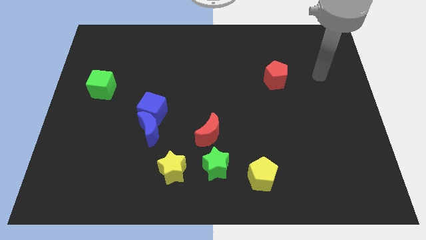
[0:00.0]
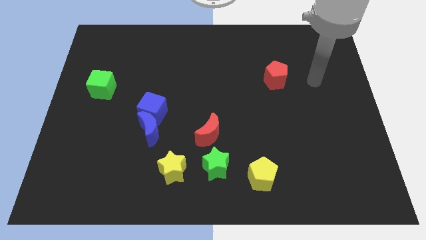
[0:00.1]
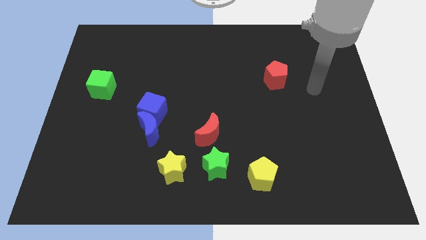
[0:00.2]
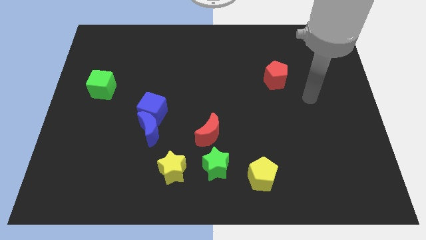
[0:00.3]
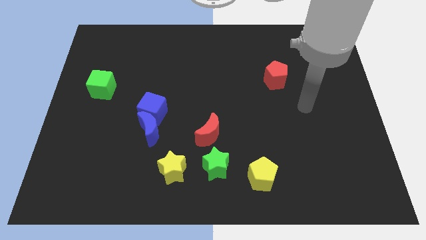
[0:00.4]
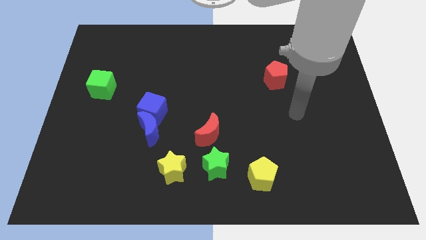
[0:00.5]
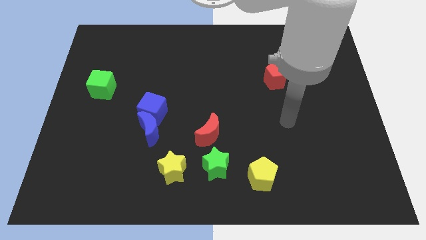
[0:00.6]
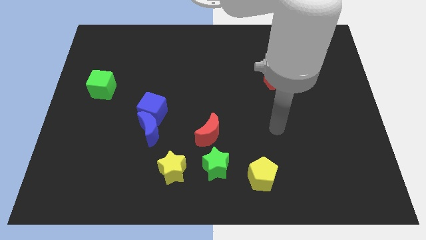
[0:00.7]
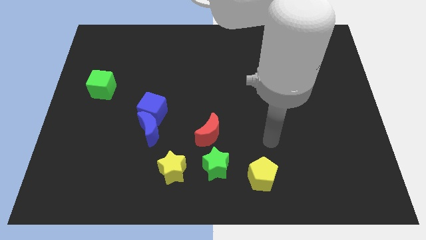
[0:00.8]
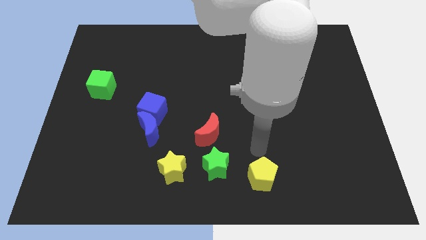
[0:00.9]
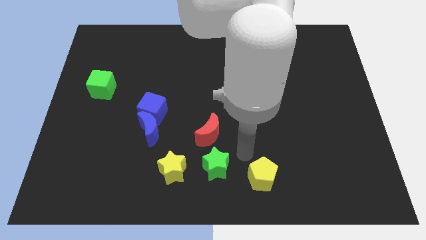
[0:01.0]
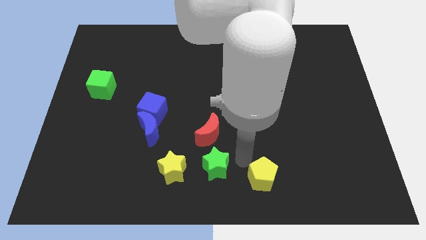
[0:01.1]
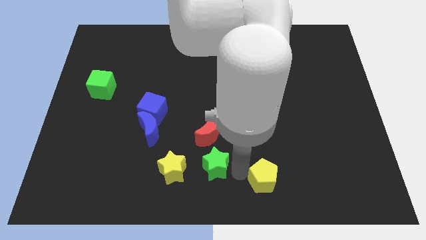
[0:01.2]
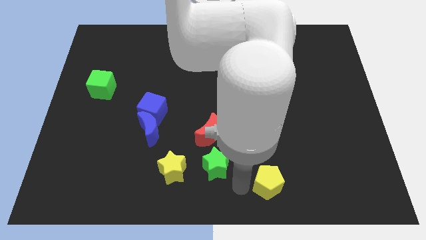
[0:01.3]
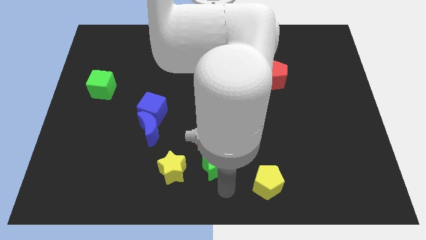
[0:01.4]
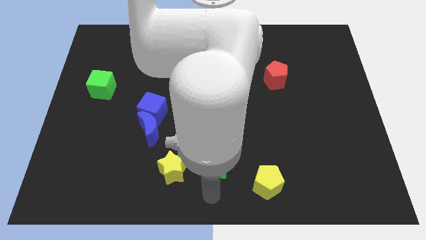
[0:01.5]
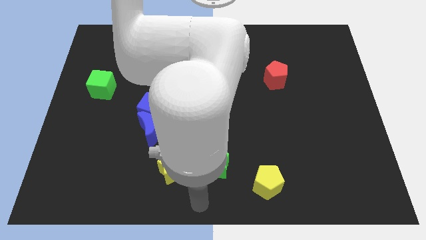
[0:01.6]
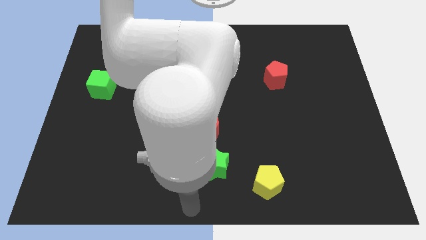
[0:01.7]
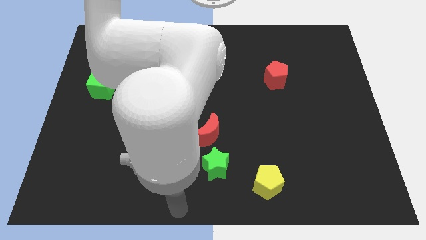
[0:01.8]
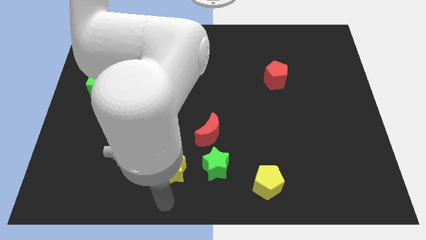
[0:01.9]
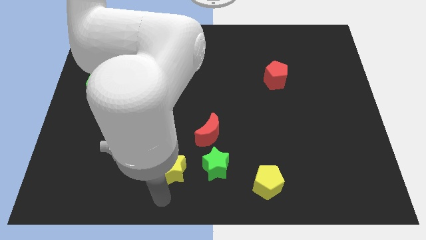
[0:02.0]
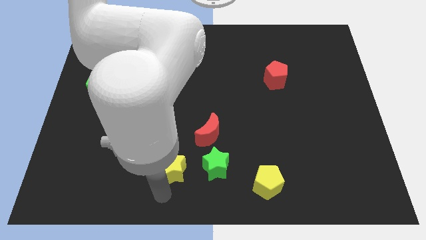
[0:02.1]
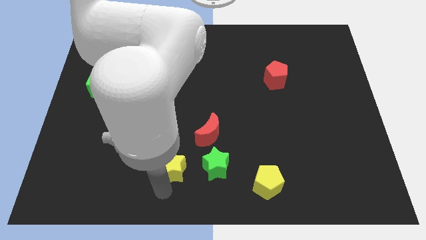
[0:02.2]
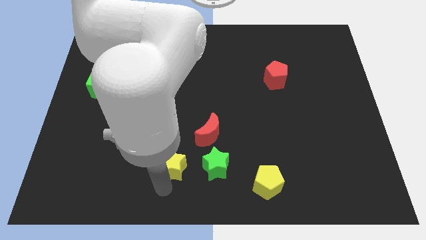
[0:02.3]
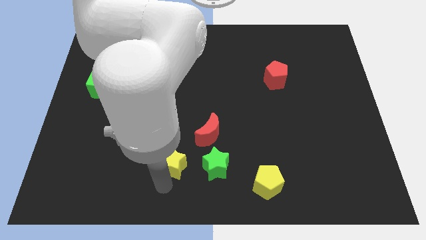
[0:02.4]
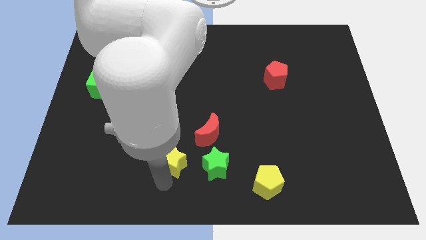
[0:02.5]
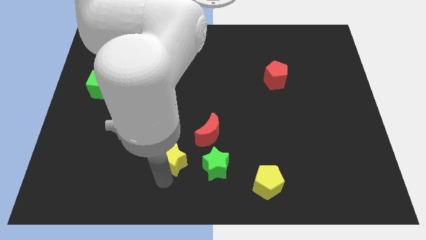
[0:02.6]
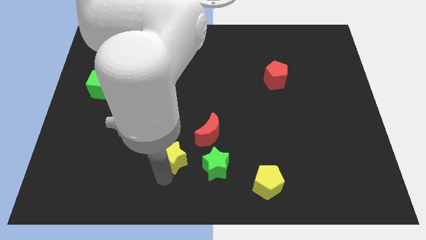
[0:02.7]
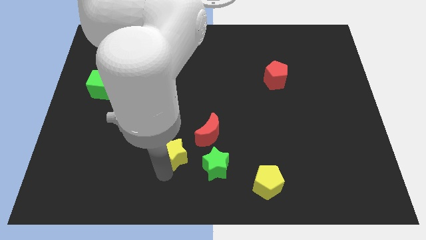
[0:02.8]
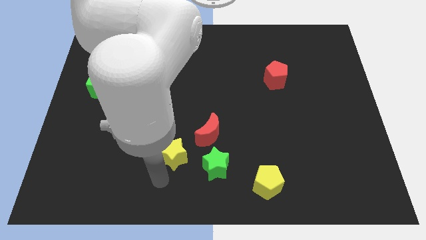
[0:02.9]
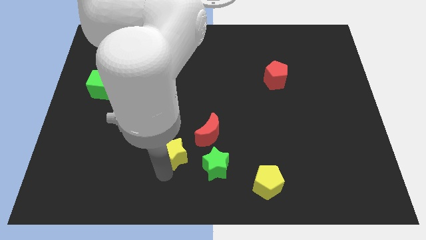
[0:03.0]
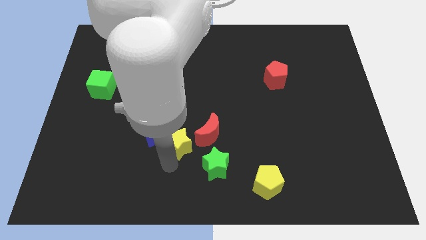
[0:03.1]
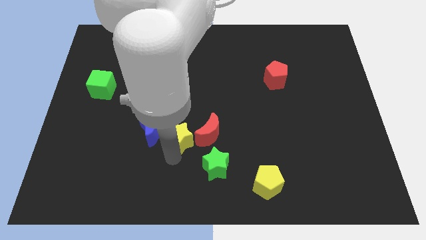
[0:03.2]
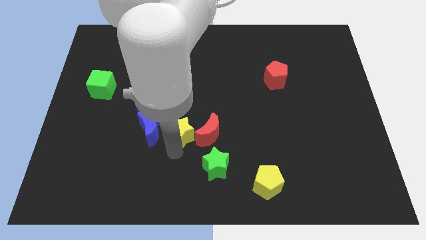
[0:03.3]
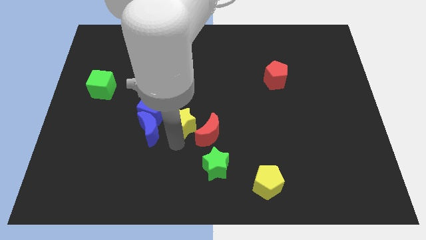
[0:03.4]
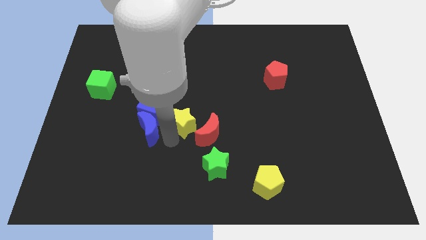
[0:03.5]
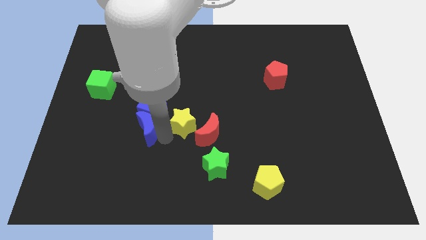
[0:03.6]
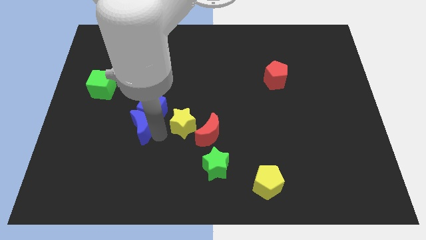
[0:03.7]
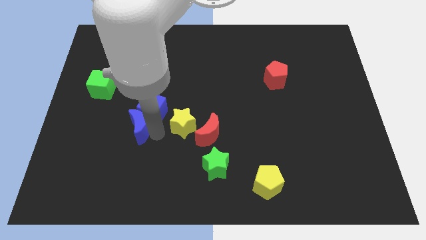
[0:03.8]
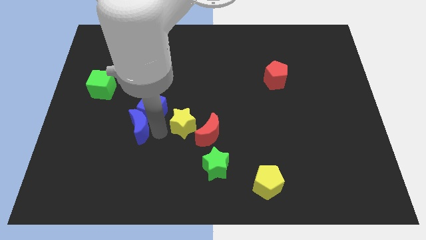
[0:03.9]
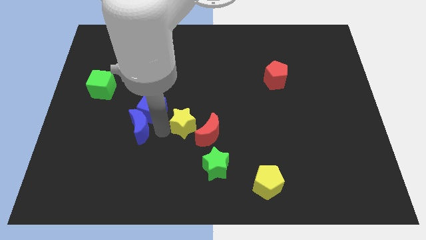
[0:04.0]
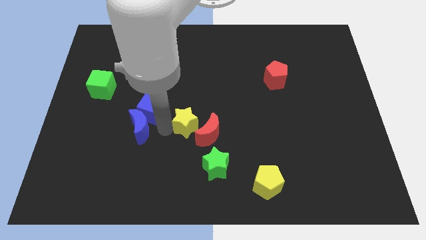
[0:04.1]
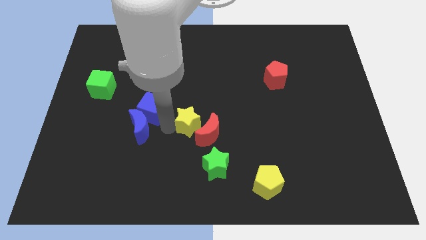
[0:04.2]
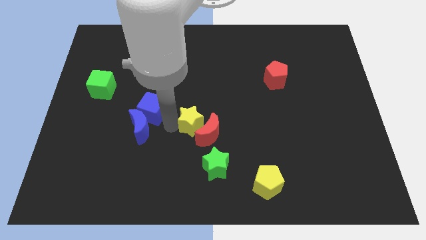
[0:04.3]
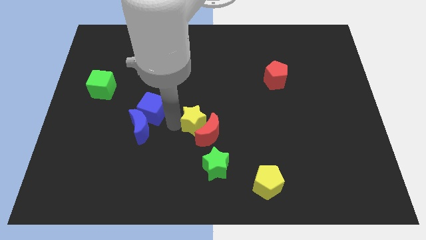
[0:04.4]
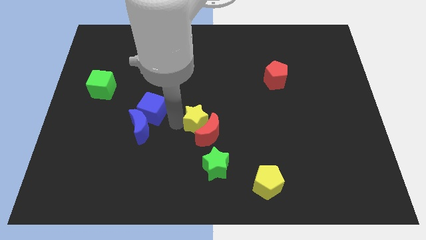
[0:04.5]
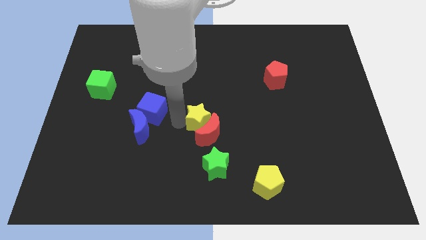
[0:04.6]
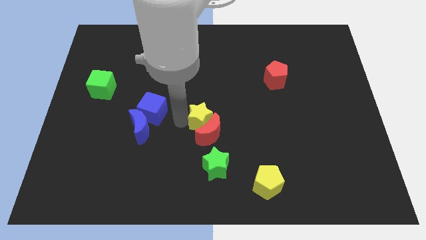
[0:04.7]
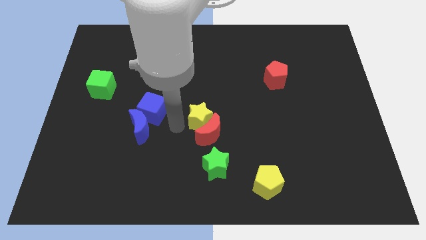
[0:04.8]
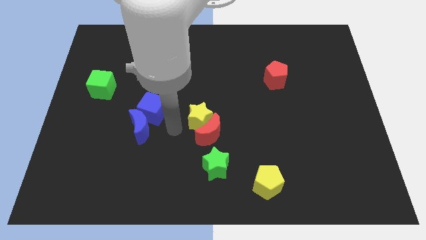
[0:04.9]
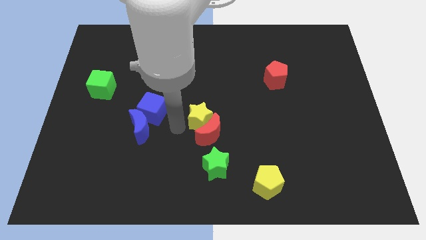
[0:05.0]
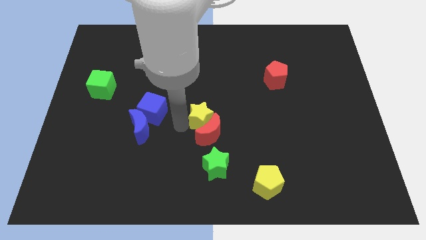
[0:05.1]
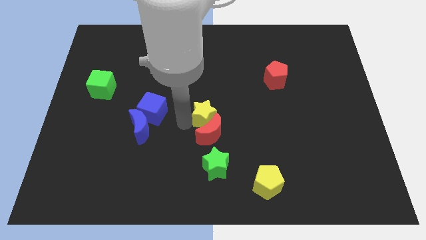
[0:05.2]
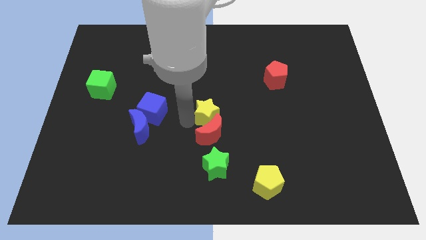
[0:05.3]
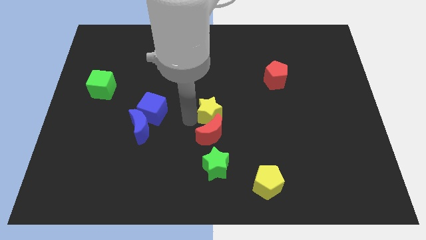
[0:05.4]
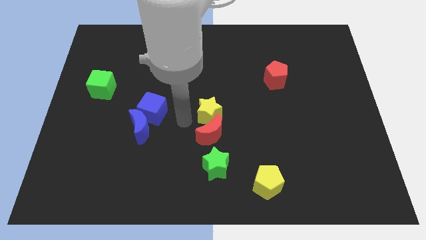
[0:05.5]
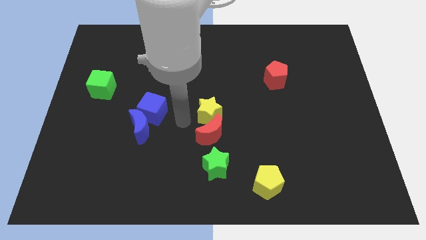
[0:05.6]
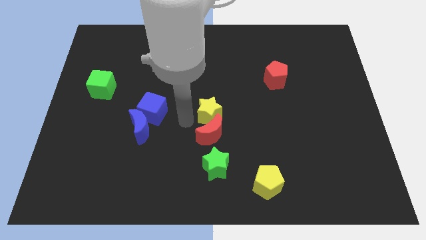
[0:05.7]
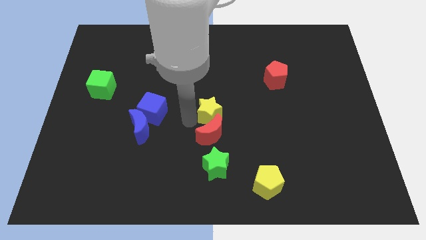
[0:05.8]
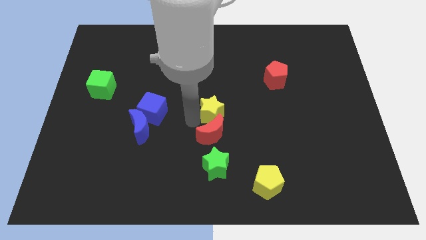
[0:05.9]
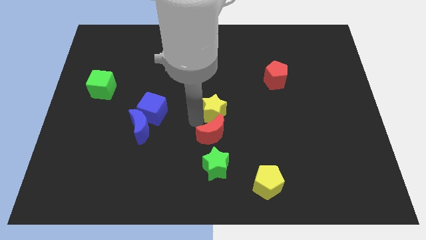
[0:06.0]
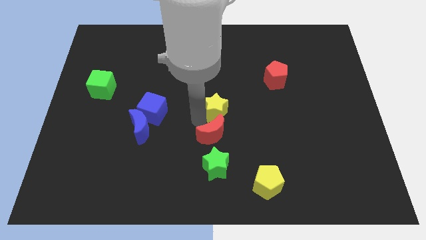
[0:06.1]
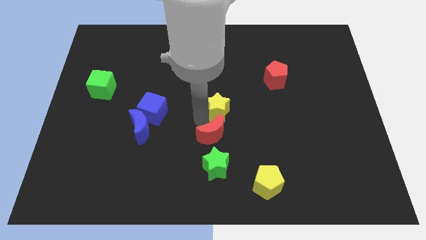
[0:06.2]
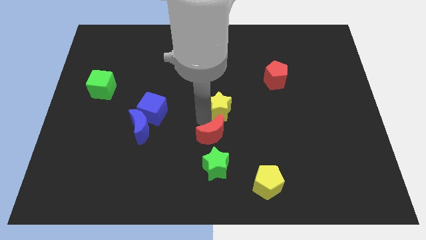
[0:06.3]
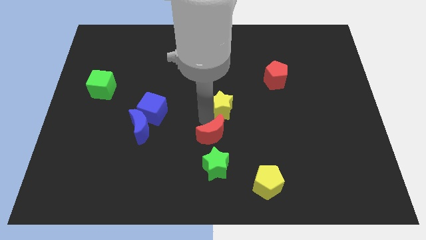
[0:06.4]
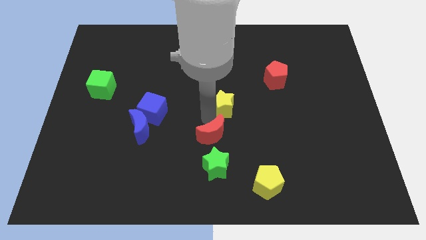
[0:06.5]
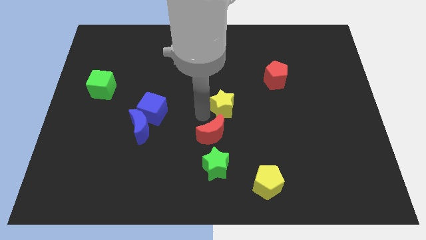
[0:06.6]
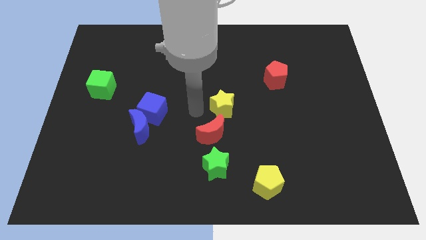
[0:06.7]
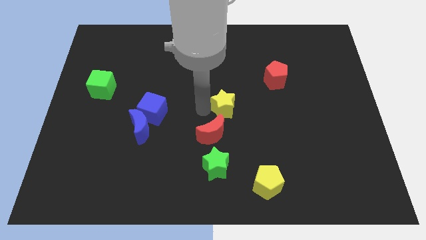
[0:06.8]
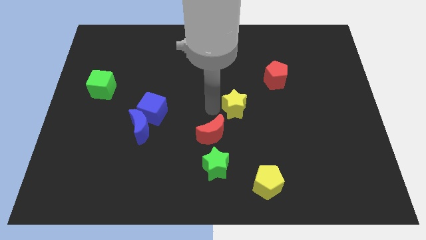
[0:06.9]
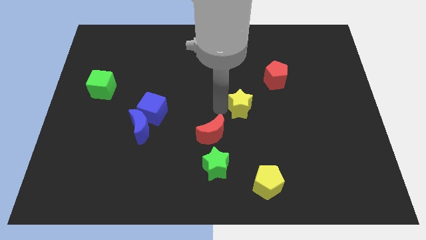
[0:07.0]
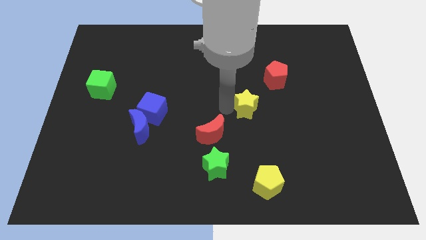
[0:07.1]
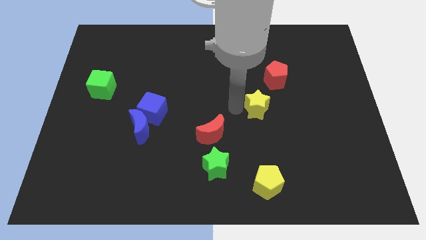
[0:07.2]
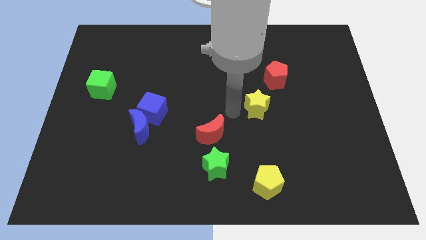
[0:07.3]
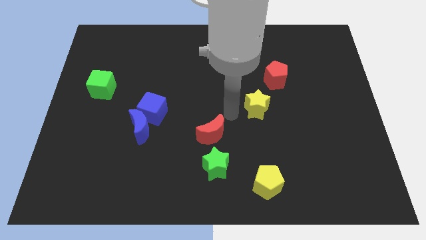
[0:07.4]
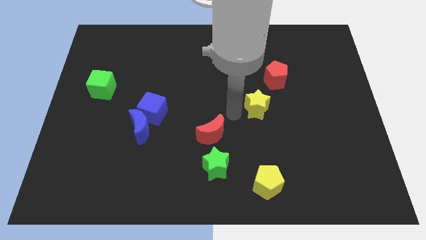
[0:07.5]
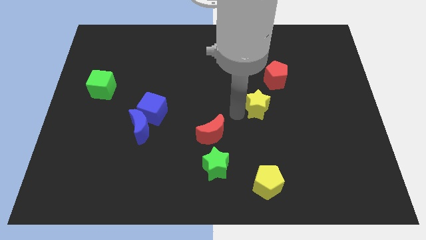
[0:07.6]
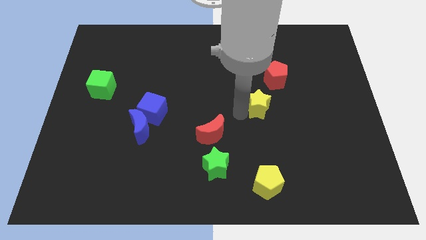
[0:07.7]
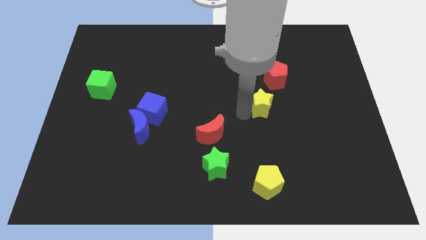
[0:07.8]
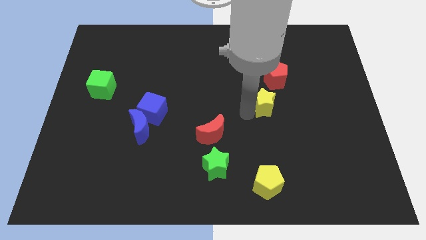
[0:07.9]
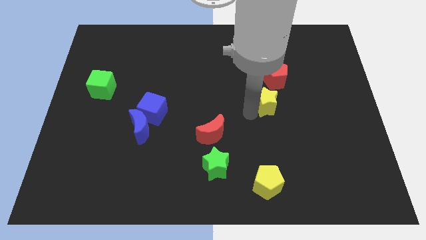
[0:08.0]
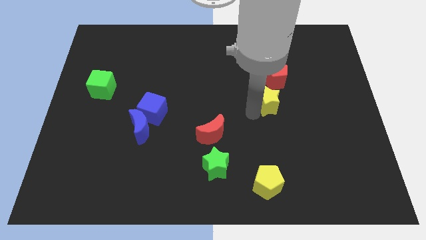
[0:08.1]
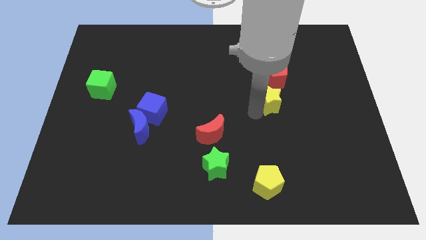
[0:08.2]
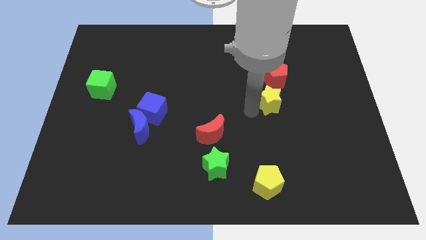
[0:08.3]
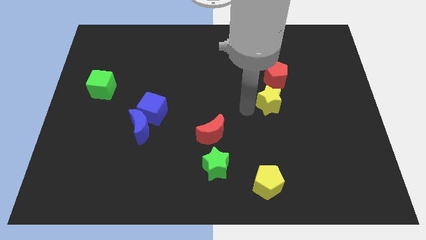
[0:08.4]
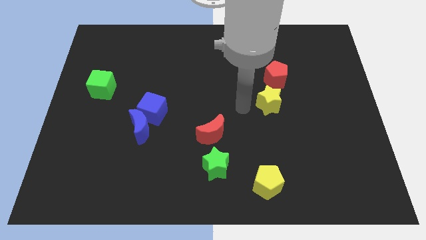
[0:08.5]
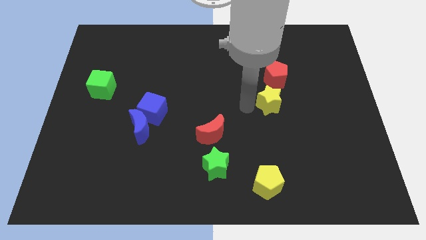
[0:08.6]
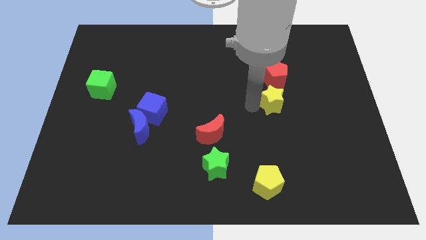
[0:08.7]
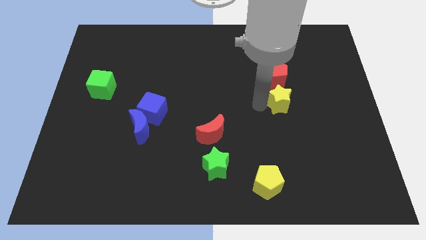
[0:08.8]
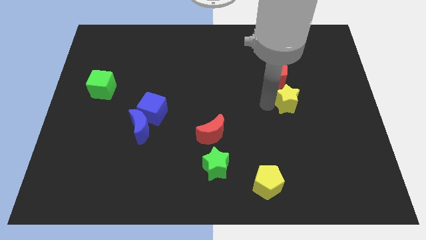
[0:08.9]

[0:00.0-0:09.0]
slide the yellow star to the bottom right of the red pentagon
